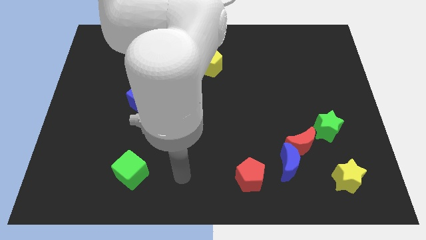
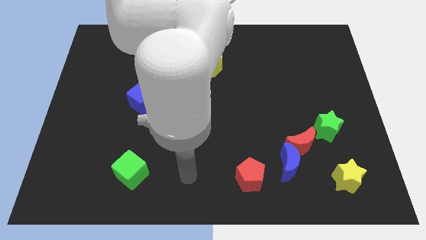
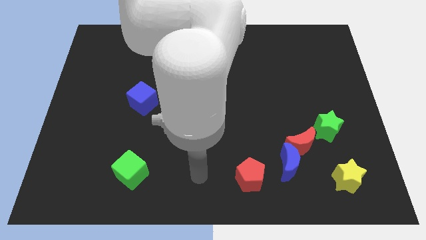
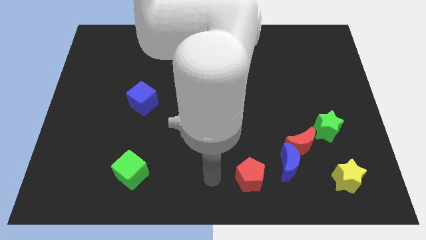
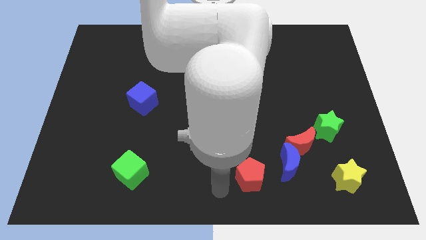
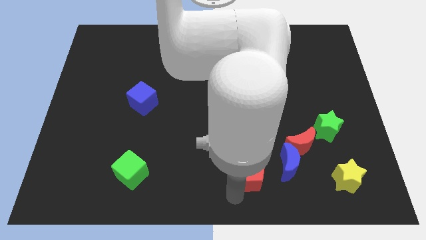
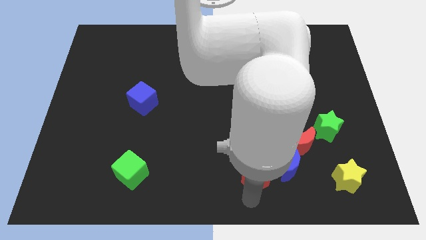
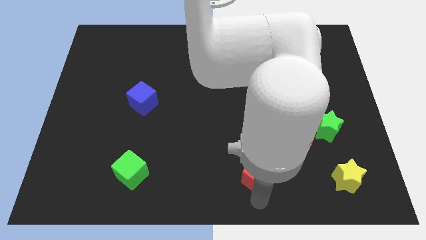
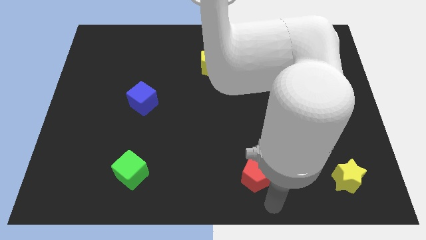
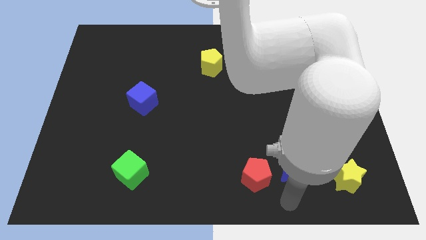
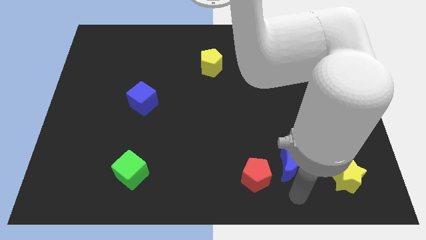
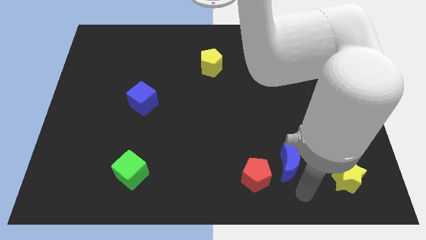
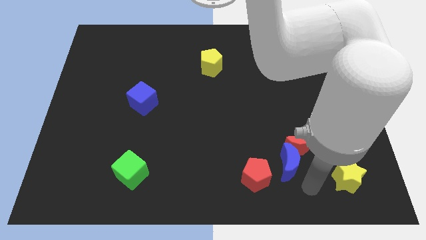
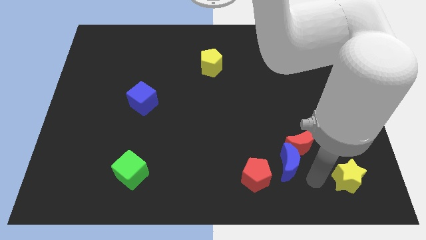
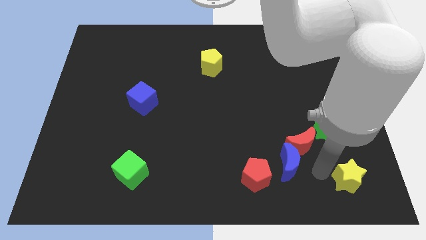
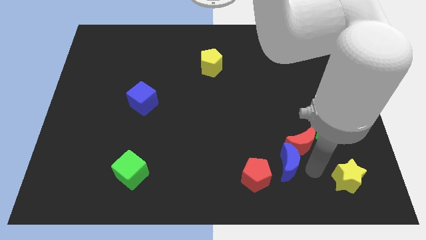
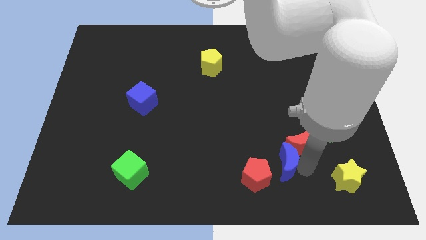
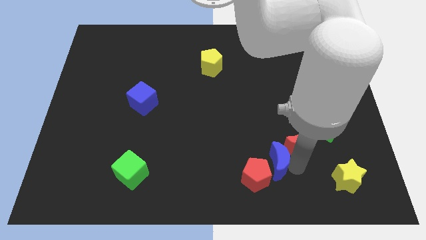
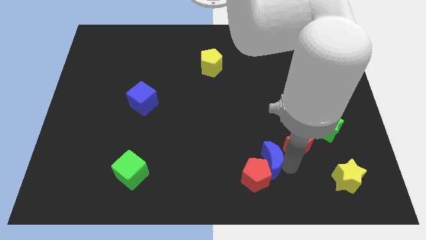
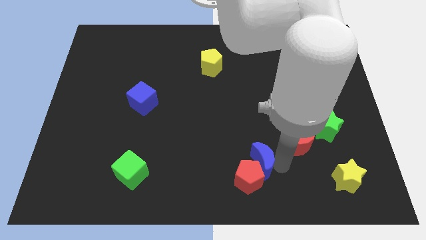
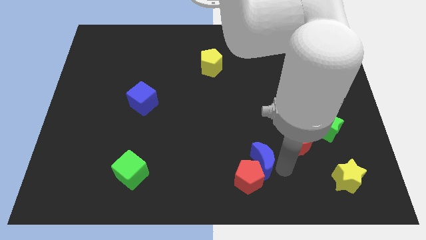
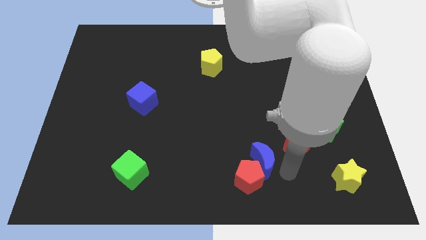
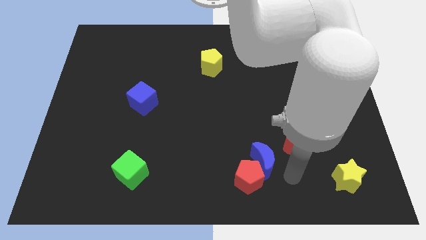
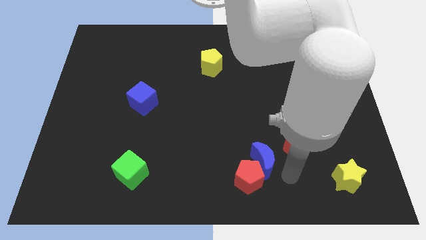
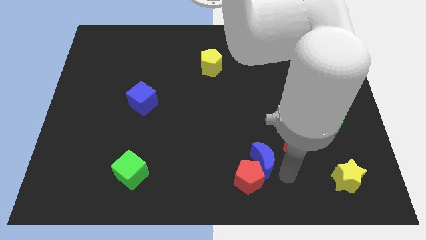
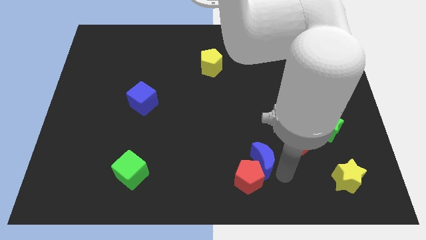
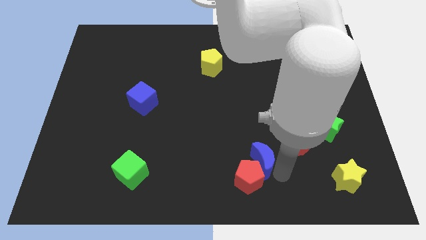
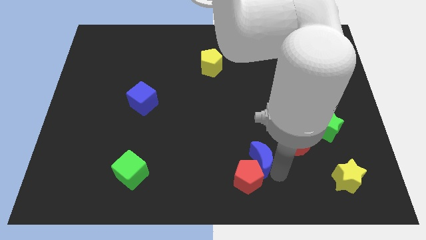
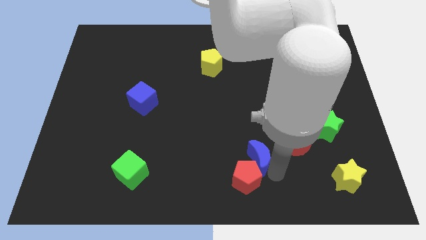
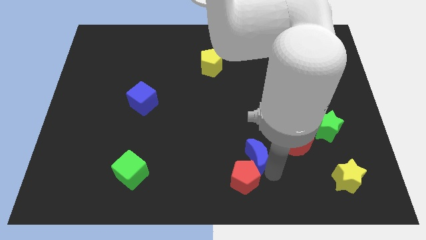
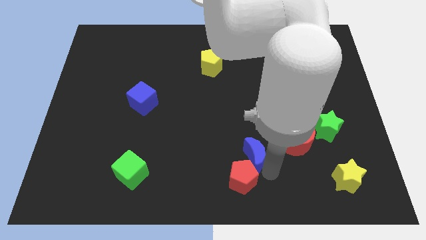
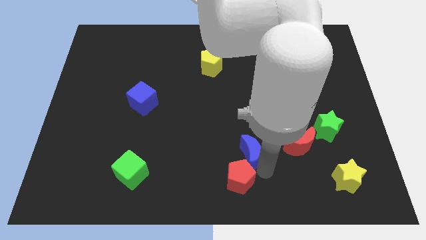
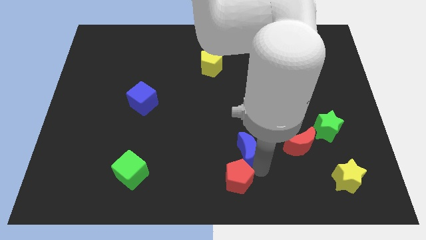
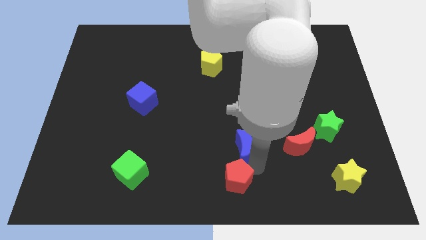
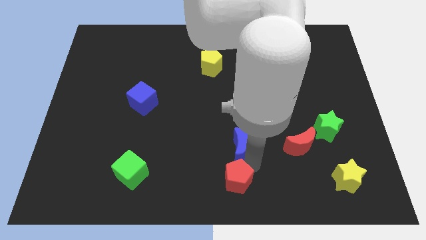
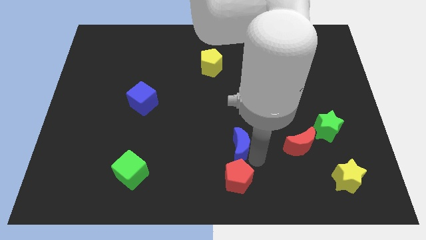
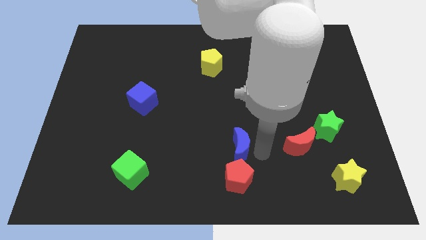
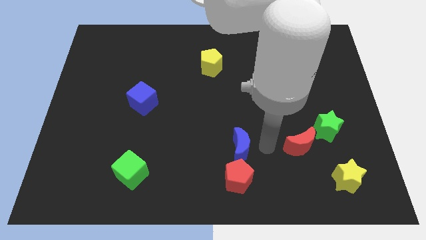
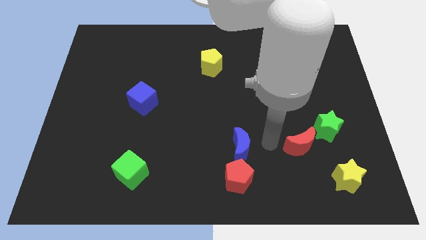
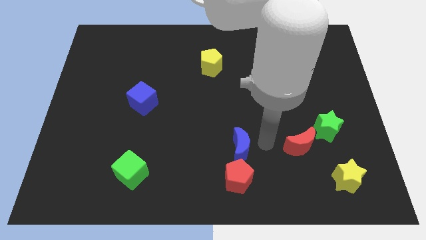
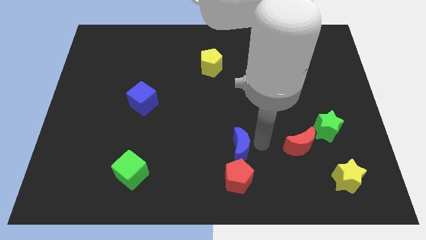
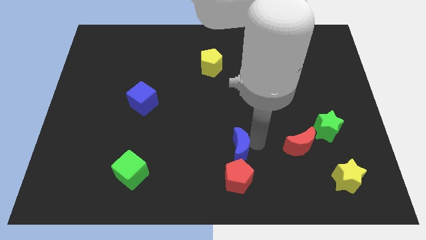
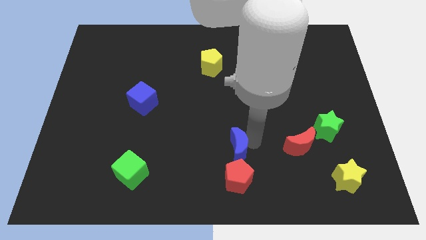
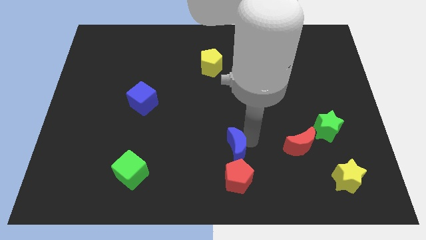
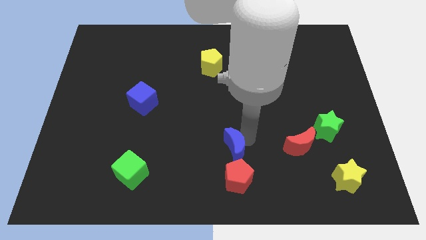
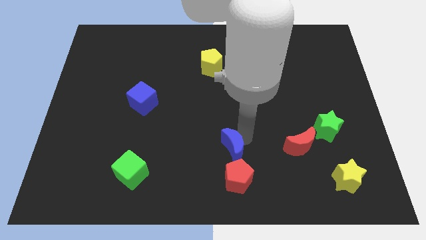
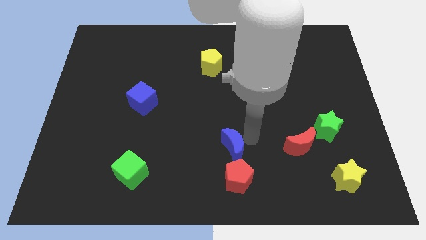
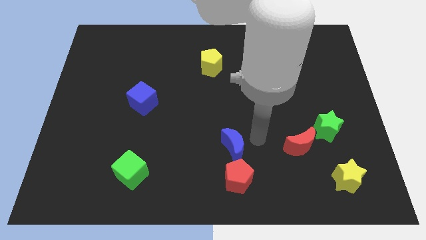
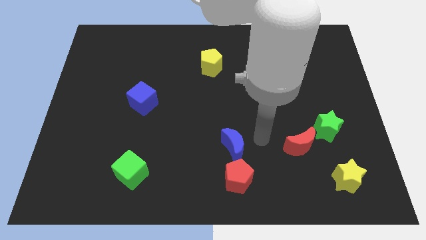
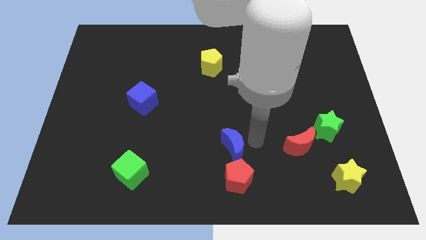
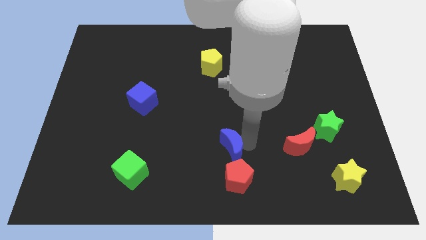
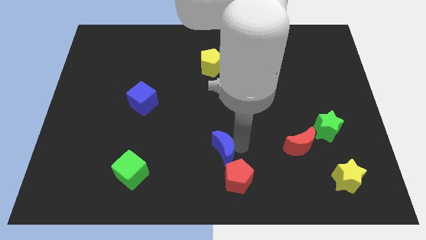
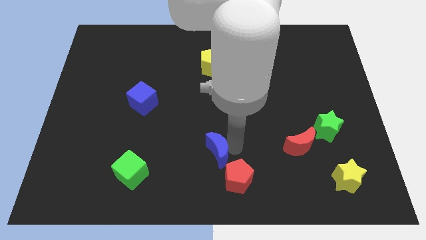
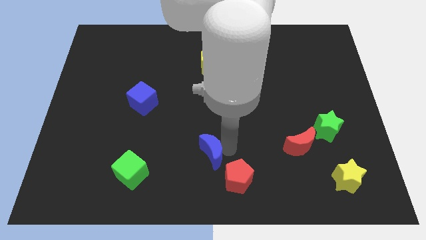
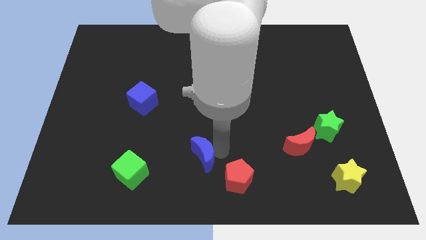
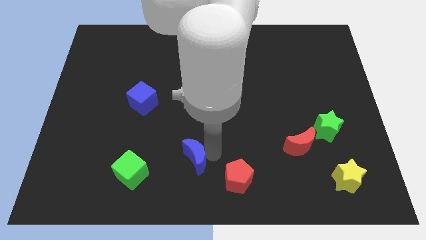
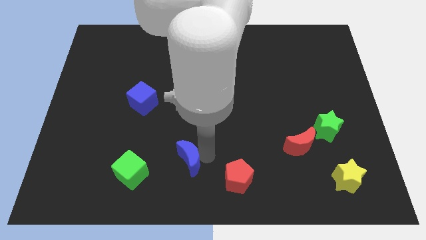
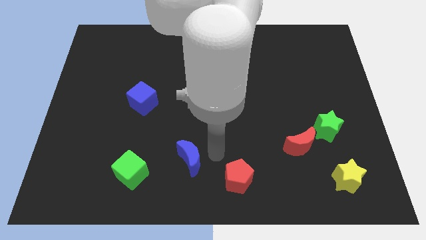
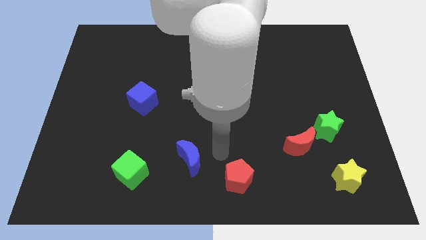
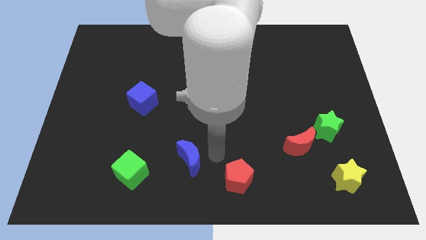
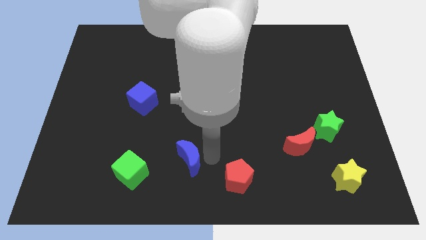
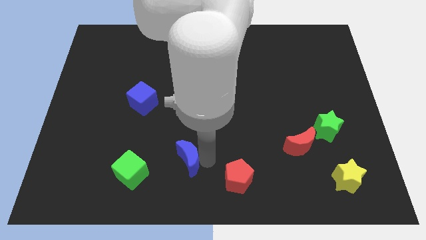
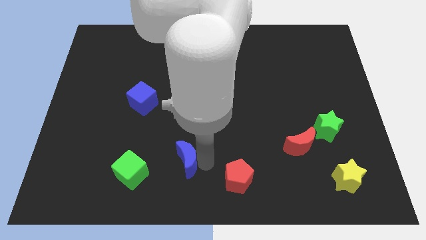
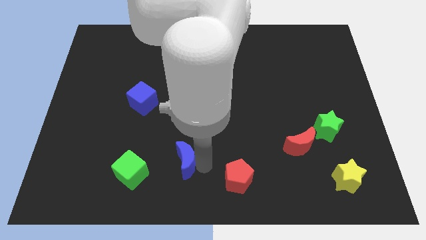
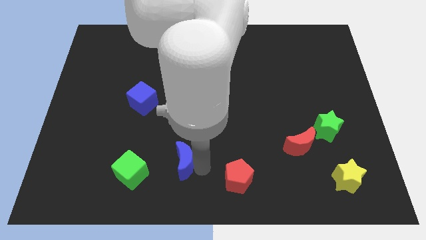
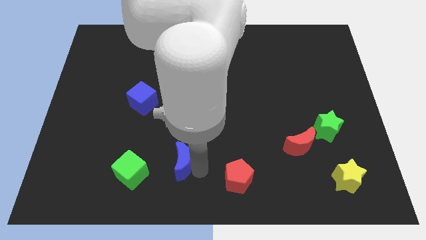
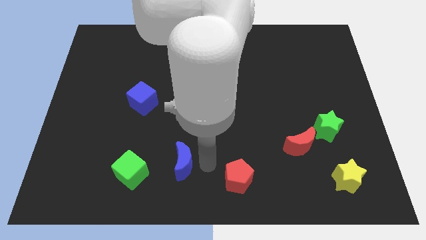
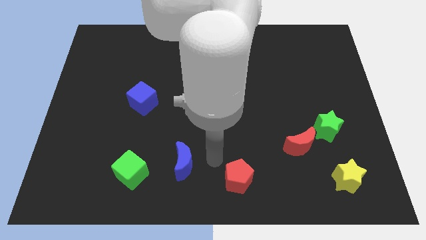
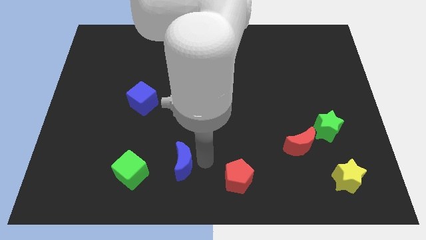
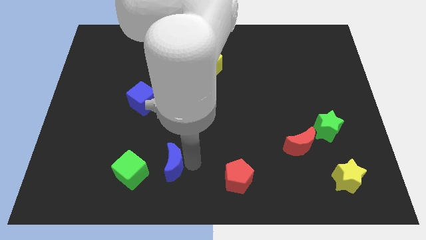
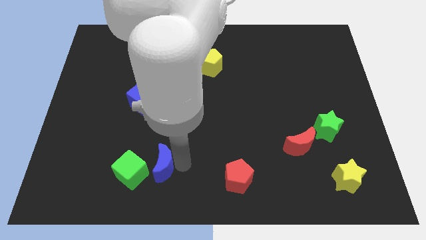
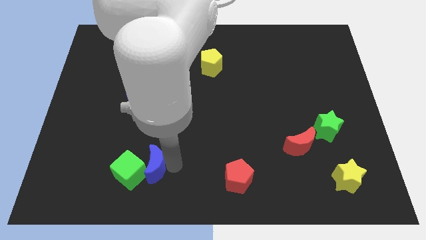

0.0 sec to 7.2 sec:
slide the blue moon next to the green cube
